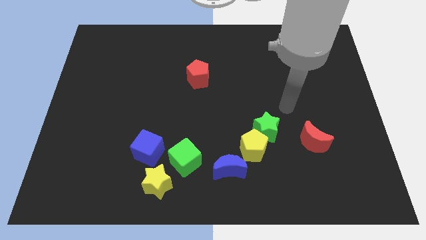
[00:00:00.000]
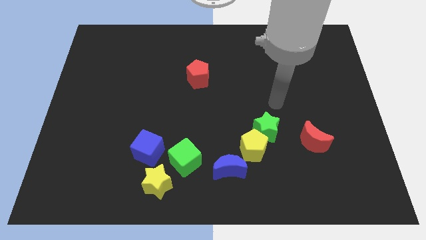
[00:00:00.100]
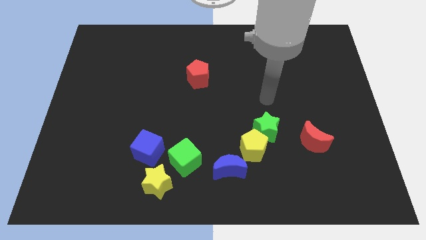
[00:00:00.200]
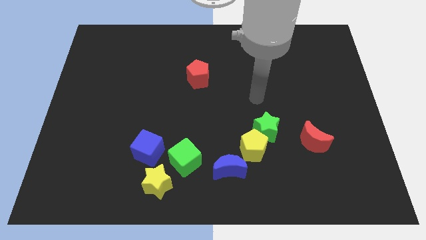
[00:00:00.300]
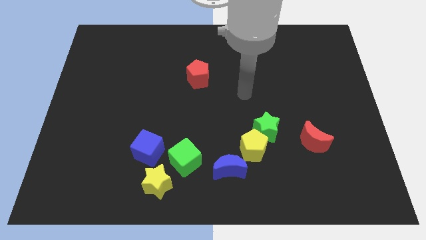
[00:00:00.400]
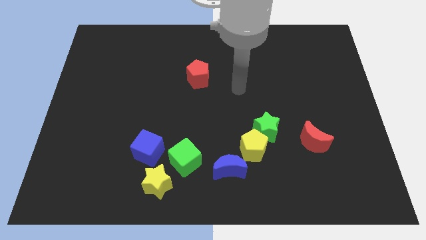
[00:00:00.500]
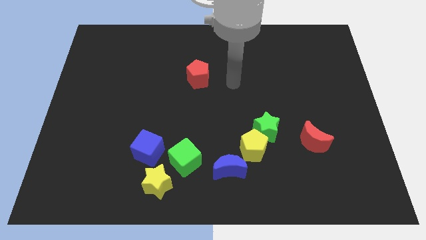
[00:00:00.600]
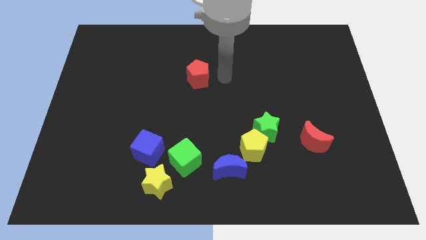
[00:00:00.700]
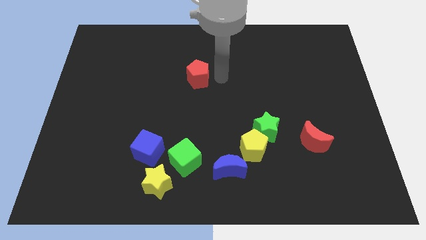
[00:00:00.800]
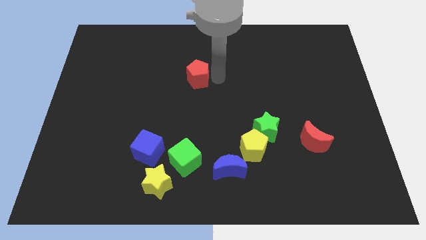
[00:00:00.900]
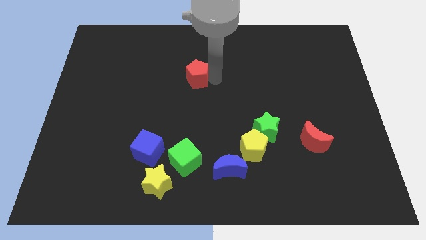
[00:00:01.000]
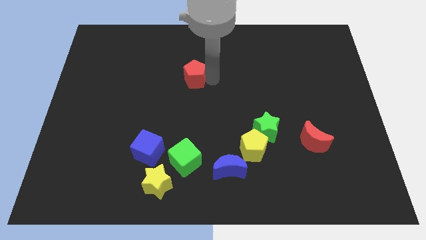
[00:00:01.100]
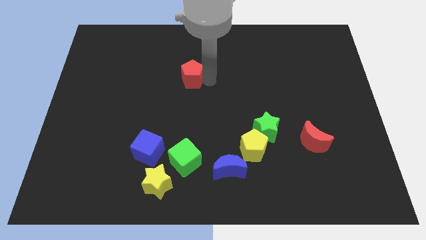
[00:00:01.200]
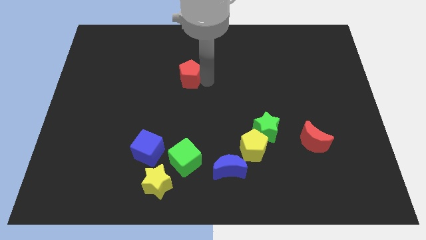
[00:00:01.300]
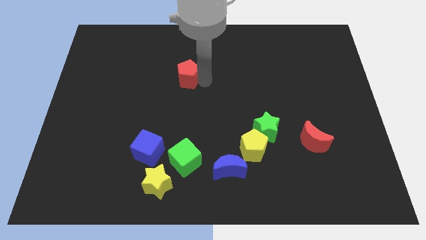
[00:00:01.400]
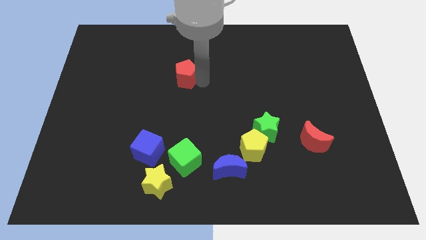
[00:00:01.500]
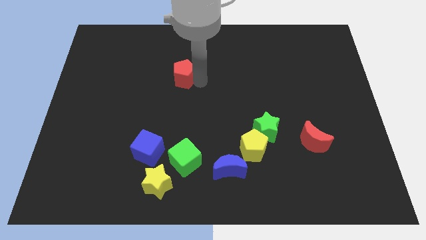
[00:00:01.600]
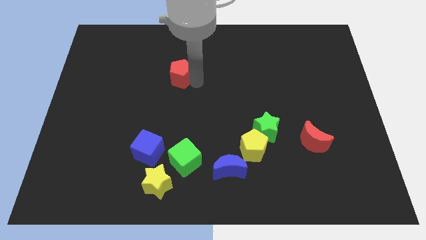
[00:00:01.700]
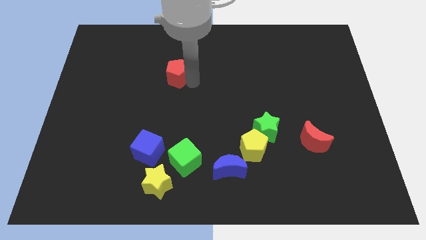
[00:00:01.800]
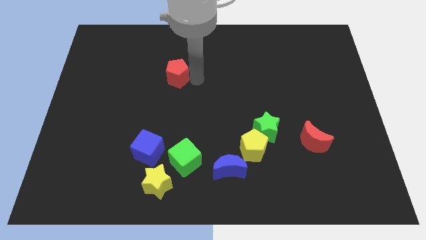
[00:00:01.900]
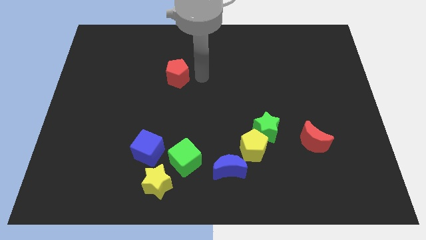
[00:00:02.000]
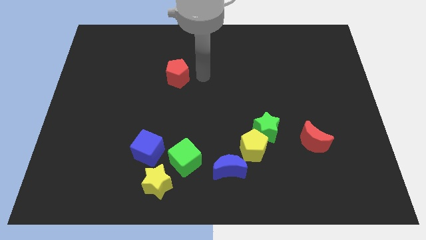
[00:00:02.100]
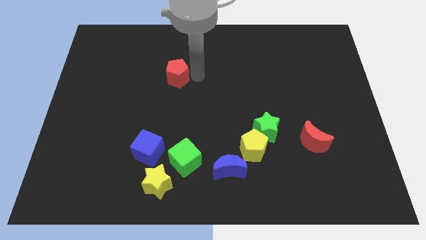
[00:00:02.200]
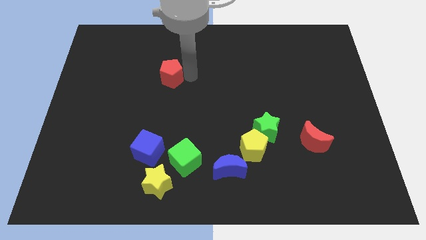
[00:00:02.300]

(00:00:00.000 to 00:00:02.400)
slightly slide the red pentagon left

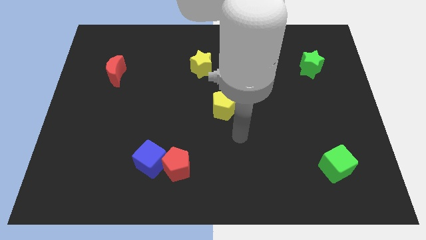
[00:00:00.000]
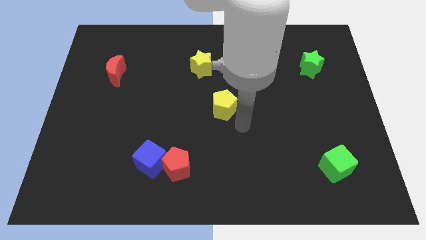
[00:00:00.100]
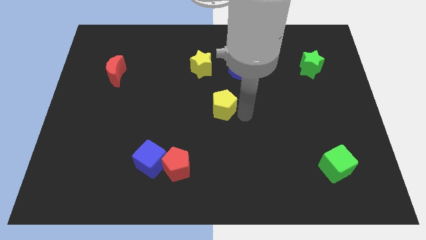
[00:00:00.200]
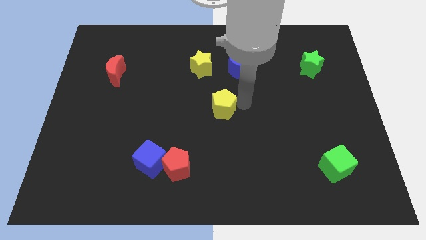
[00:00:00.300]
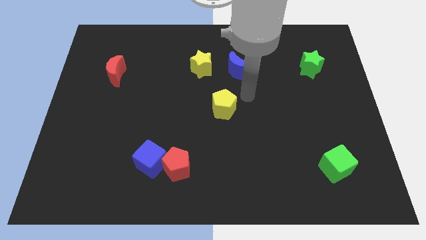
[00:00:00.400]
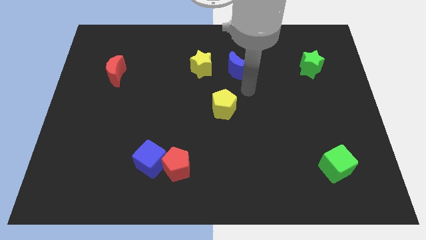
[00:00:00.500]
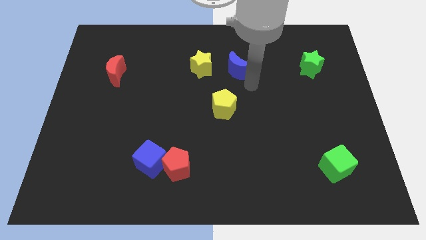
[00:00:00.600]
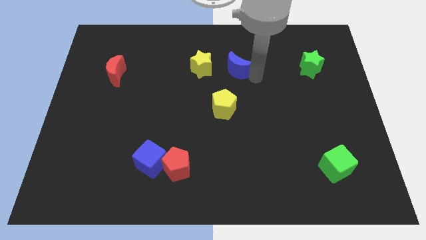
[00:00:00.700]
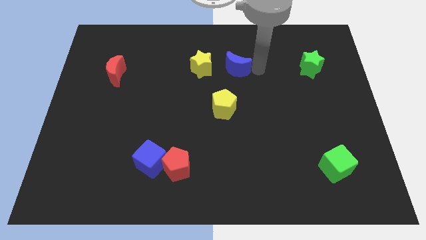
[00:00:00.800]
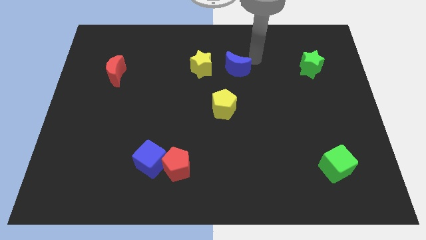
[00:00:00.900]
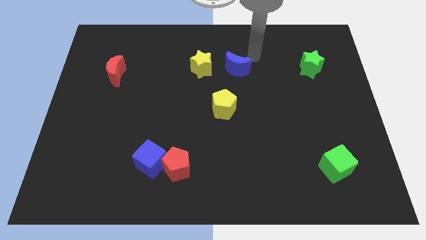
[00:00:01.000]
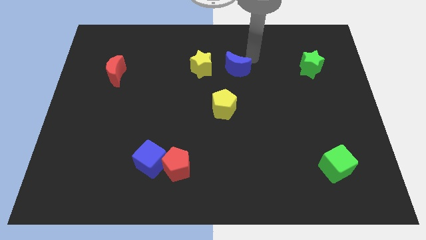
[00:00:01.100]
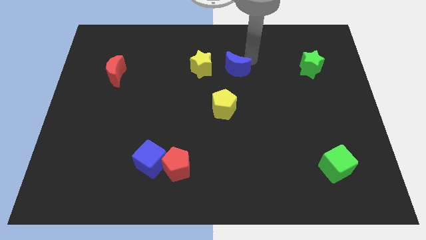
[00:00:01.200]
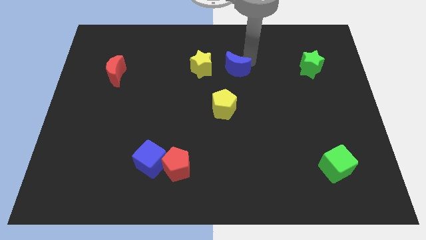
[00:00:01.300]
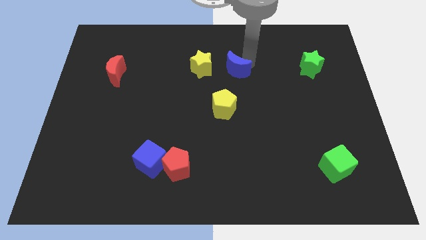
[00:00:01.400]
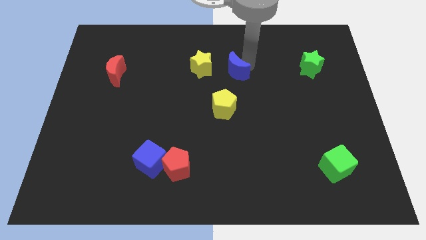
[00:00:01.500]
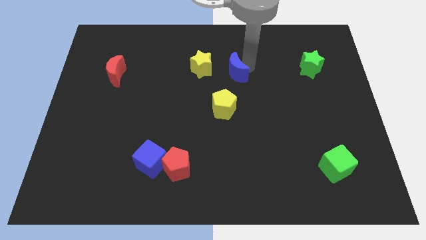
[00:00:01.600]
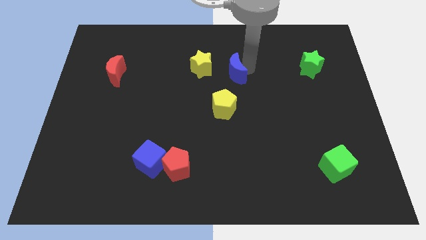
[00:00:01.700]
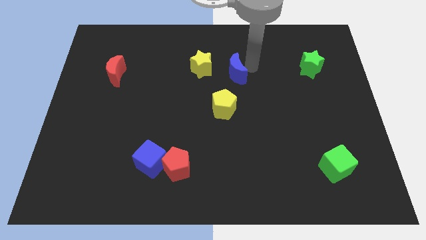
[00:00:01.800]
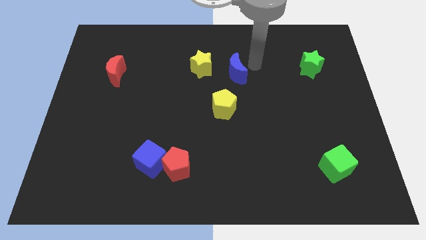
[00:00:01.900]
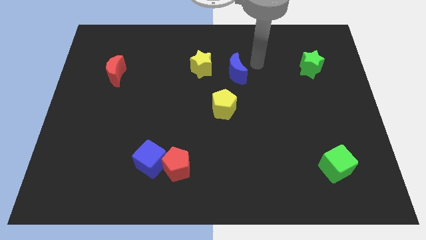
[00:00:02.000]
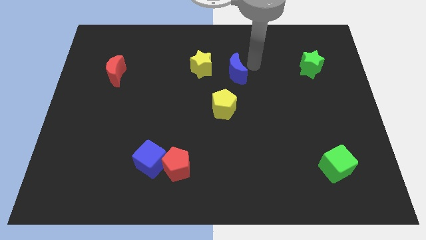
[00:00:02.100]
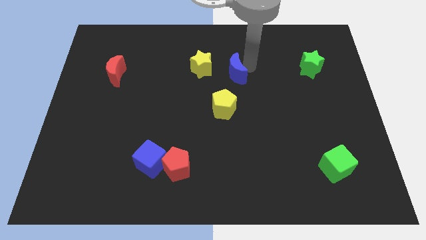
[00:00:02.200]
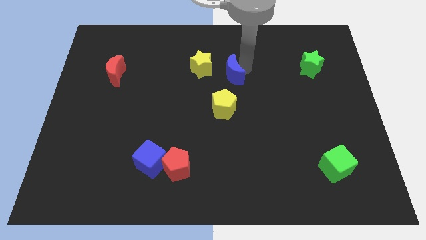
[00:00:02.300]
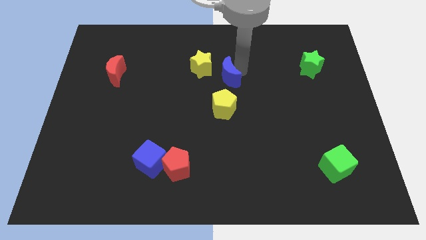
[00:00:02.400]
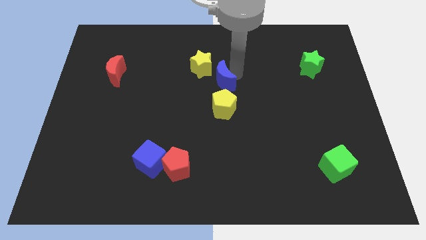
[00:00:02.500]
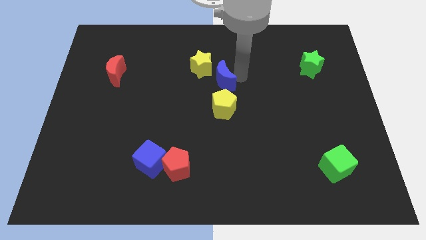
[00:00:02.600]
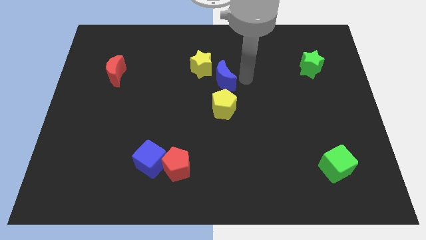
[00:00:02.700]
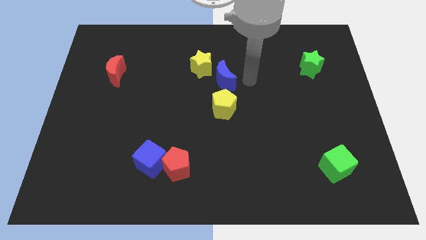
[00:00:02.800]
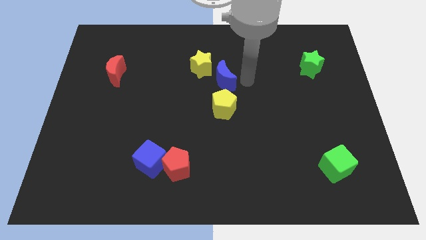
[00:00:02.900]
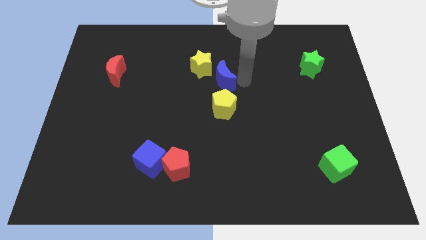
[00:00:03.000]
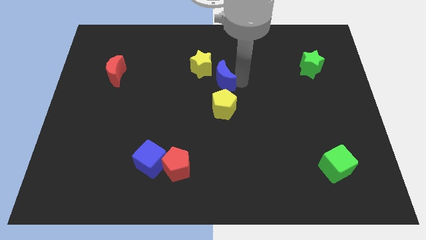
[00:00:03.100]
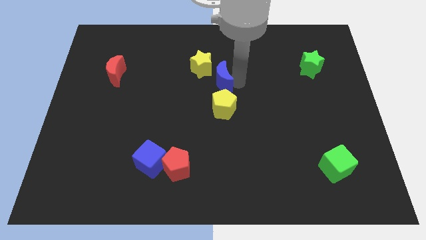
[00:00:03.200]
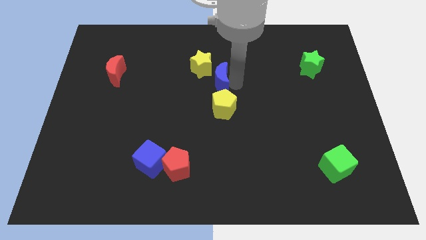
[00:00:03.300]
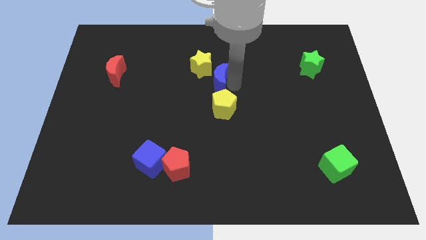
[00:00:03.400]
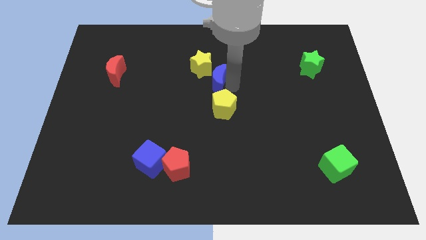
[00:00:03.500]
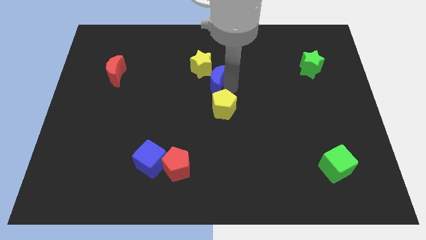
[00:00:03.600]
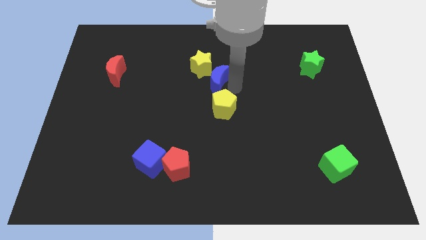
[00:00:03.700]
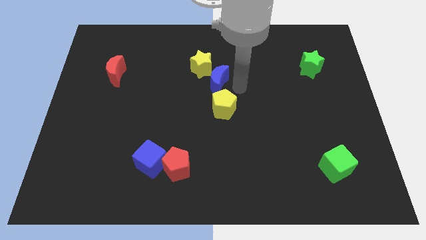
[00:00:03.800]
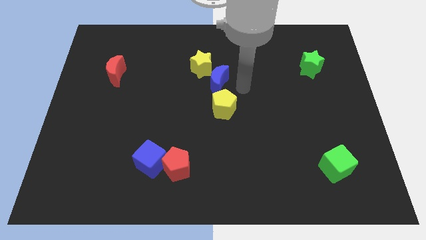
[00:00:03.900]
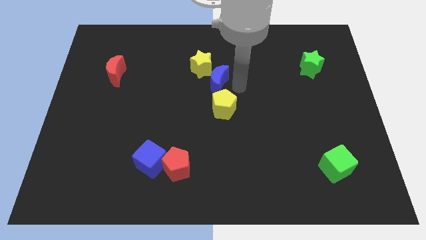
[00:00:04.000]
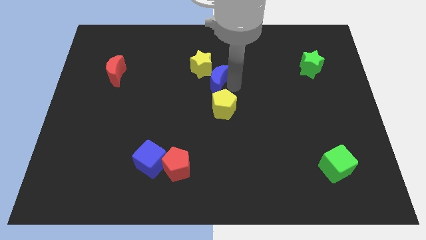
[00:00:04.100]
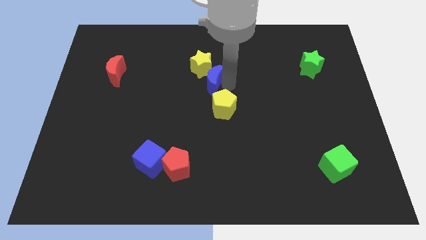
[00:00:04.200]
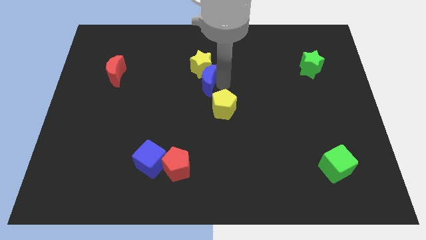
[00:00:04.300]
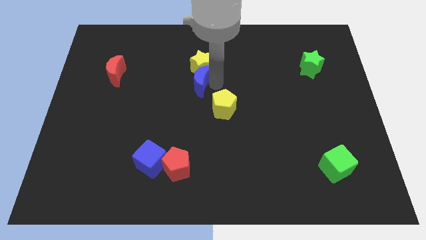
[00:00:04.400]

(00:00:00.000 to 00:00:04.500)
slightly slide the blue moon to the left

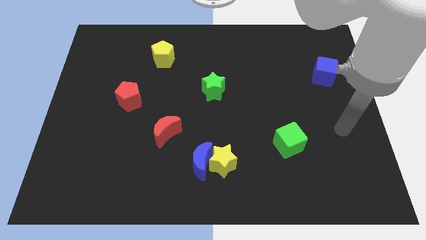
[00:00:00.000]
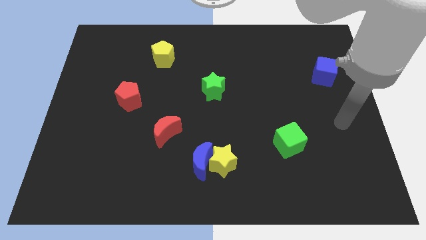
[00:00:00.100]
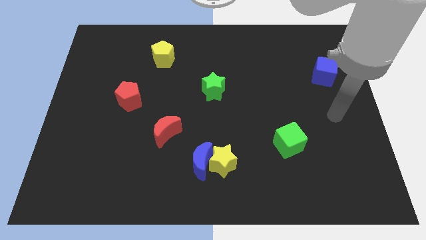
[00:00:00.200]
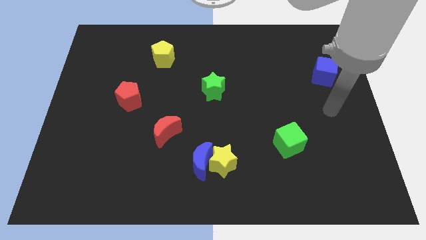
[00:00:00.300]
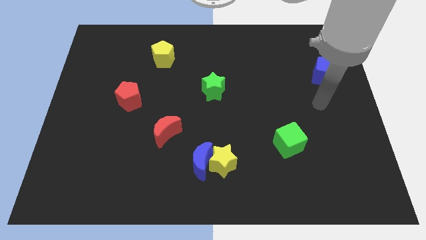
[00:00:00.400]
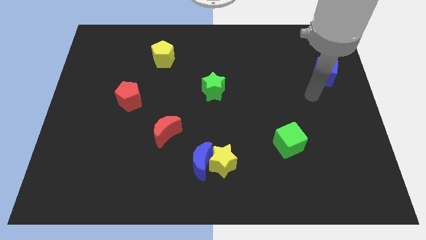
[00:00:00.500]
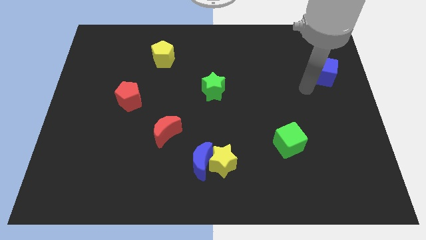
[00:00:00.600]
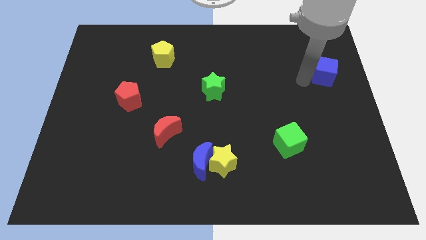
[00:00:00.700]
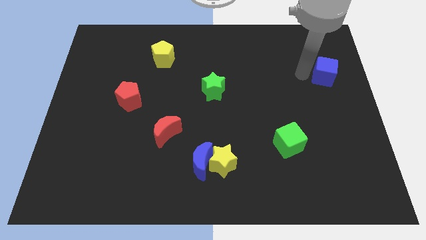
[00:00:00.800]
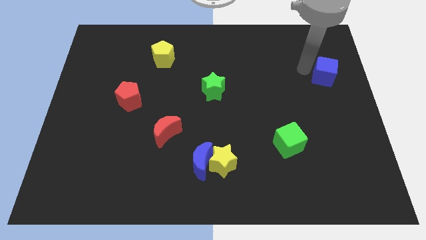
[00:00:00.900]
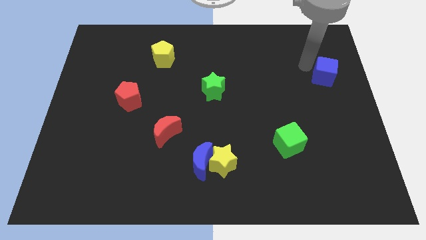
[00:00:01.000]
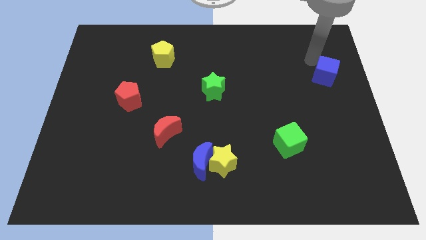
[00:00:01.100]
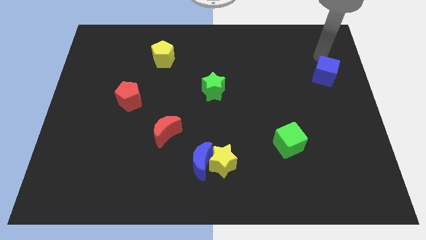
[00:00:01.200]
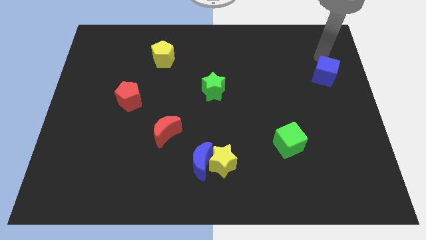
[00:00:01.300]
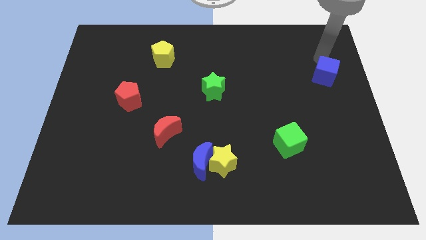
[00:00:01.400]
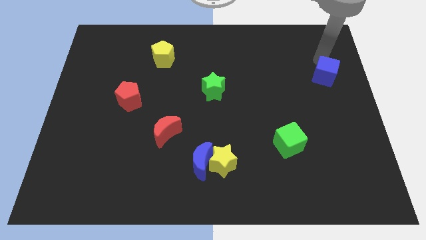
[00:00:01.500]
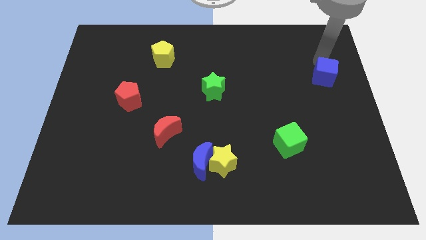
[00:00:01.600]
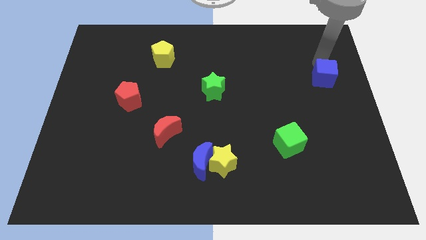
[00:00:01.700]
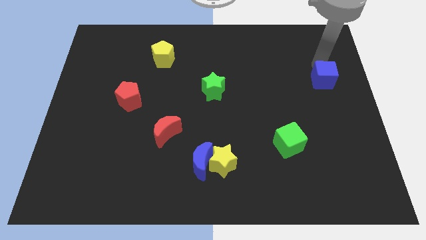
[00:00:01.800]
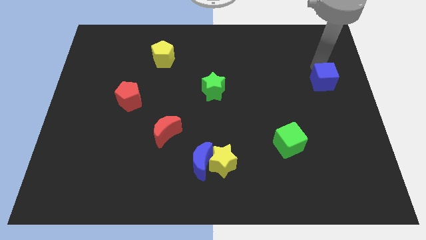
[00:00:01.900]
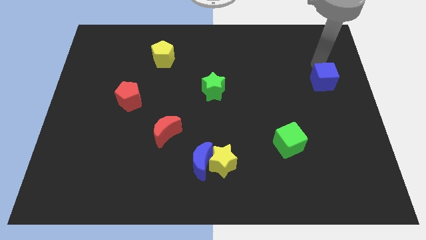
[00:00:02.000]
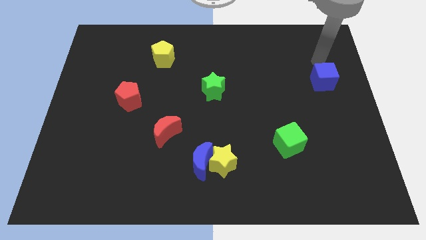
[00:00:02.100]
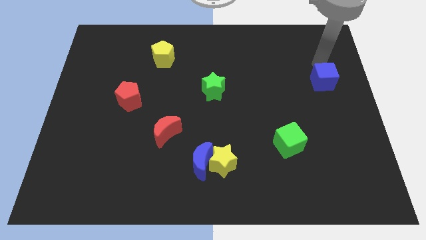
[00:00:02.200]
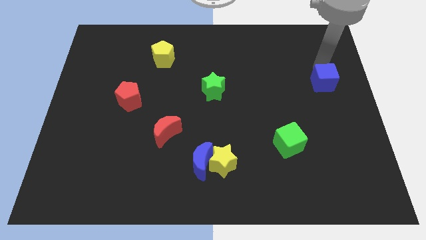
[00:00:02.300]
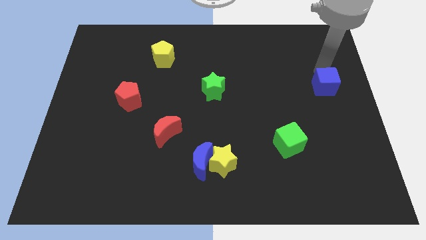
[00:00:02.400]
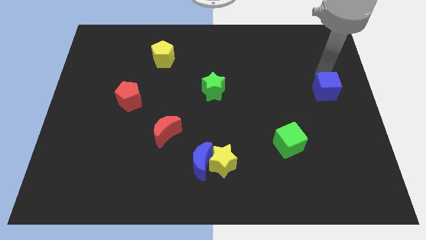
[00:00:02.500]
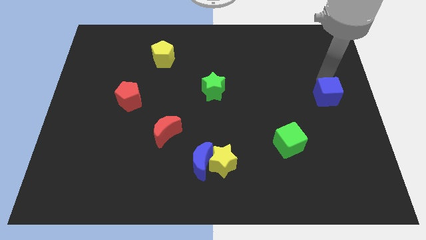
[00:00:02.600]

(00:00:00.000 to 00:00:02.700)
slightly move the blue cube downwards
